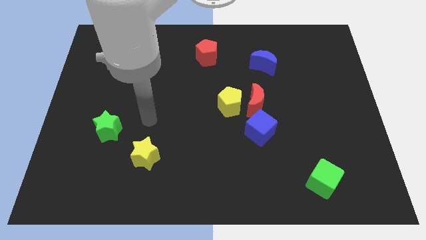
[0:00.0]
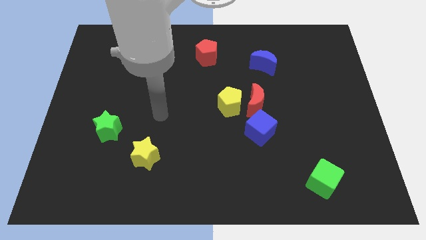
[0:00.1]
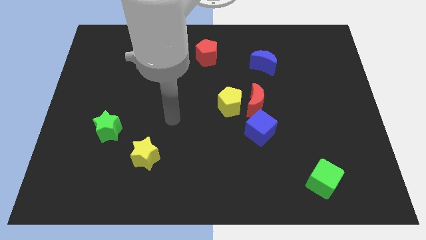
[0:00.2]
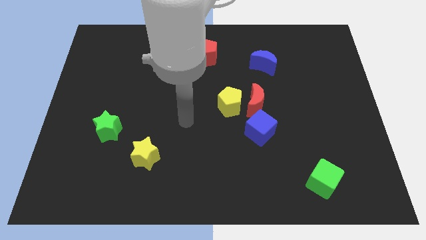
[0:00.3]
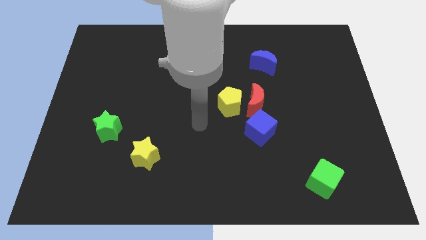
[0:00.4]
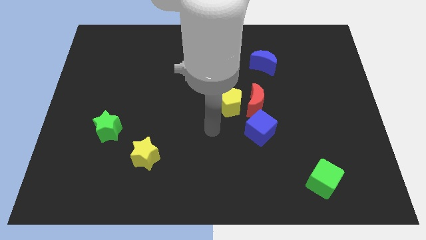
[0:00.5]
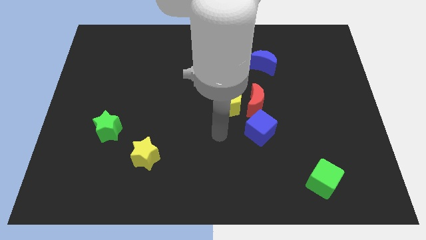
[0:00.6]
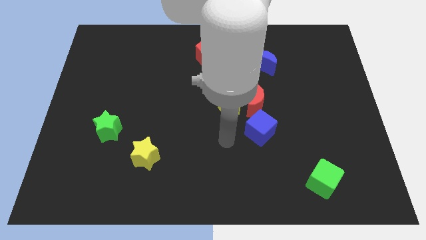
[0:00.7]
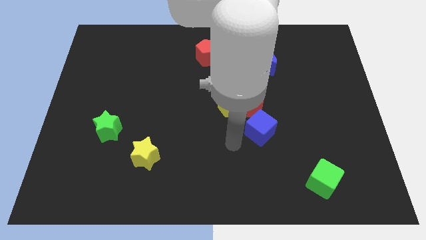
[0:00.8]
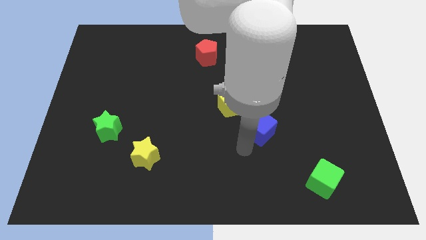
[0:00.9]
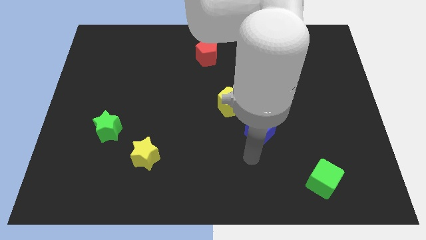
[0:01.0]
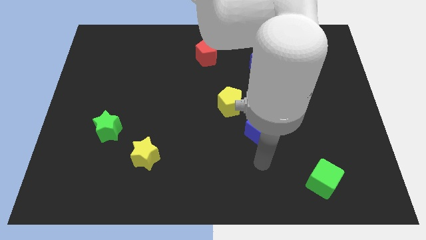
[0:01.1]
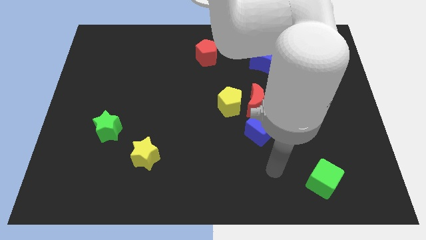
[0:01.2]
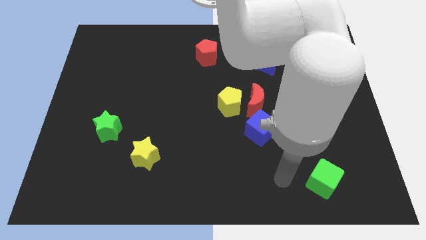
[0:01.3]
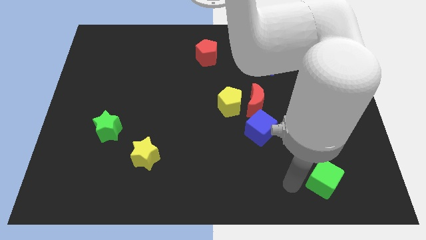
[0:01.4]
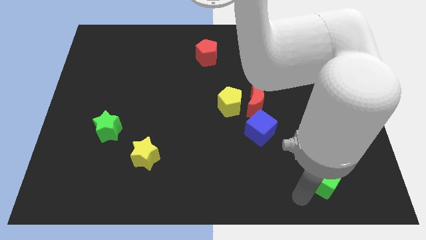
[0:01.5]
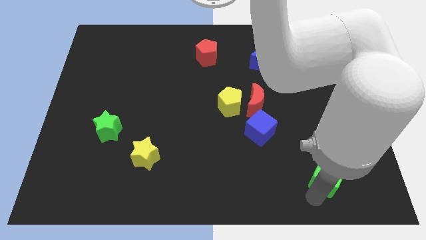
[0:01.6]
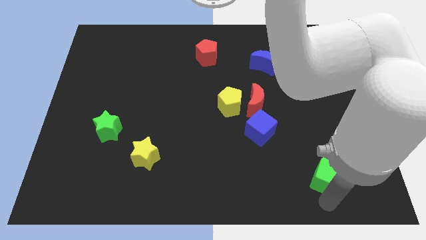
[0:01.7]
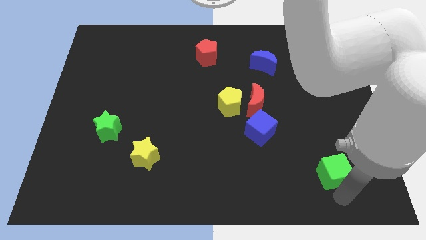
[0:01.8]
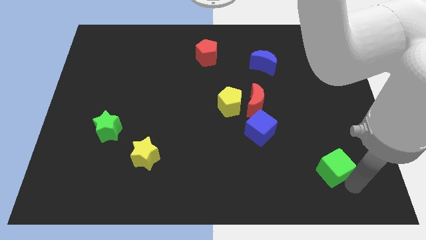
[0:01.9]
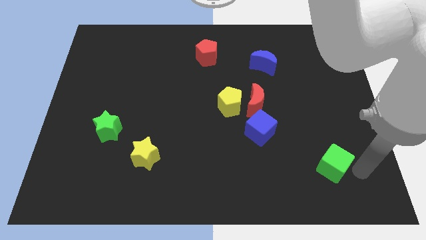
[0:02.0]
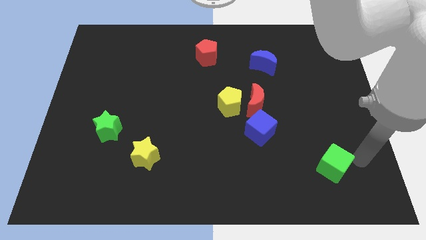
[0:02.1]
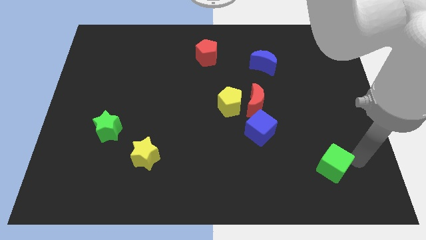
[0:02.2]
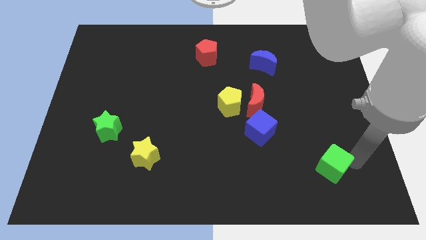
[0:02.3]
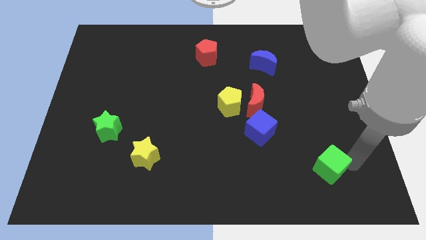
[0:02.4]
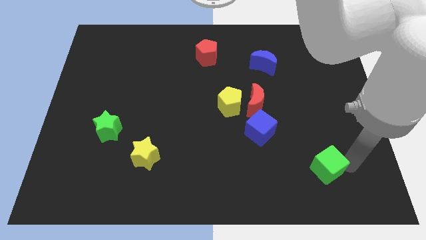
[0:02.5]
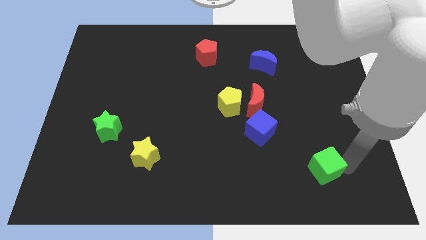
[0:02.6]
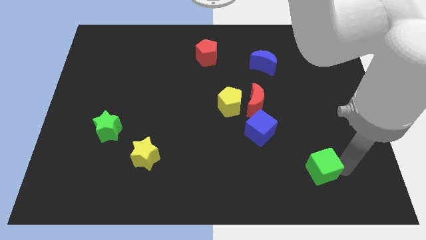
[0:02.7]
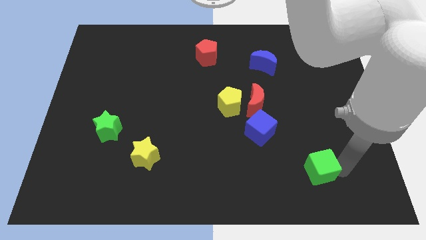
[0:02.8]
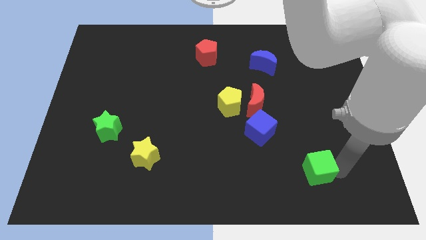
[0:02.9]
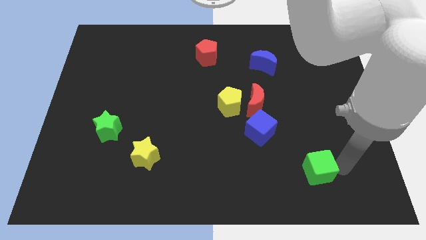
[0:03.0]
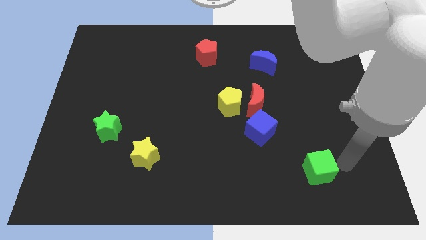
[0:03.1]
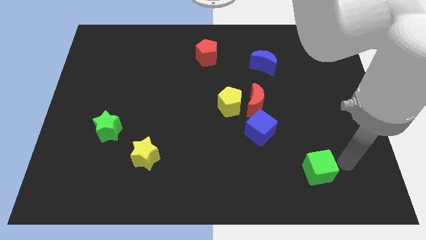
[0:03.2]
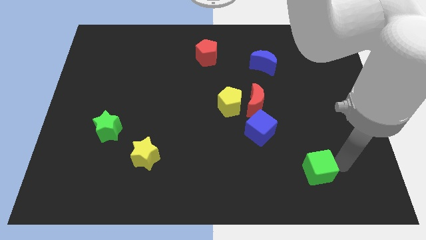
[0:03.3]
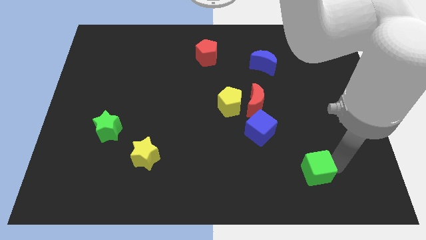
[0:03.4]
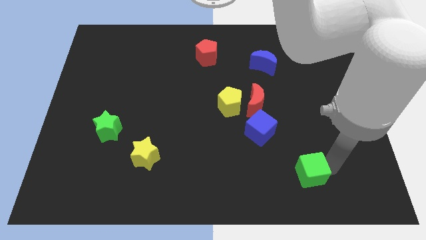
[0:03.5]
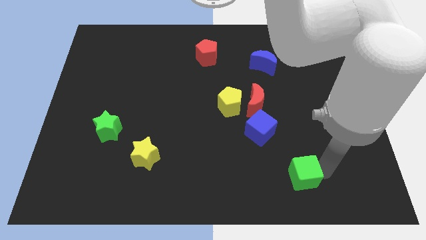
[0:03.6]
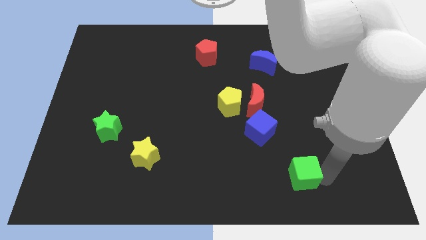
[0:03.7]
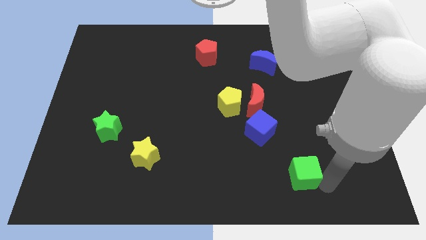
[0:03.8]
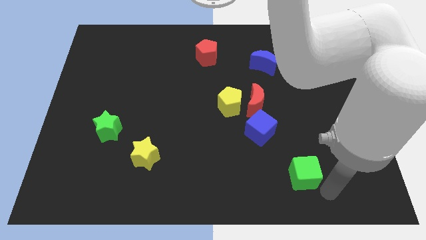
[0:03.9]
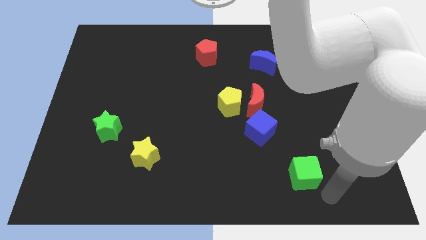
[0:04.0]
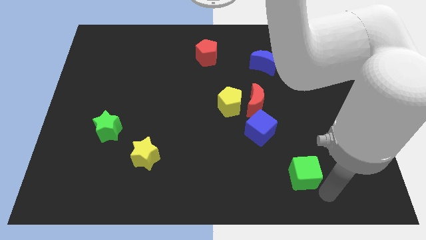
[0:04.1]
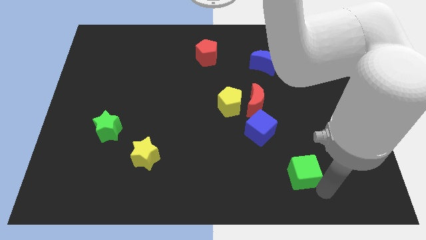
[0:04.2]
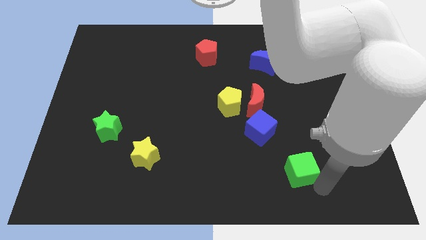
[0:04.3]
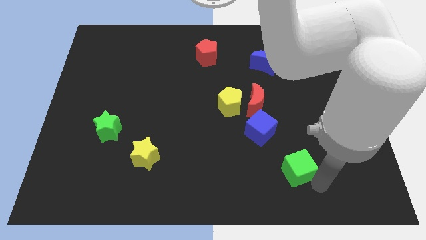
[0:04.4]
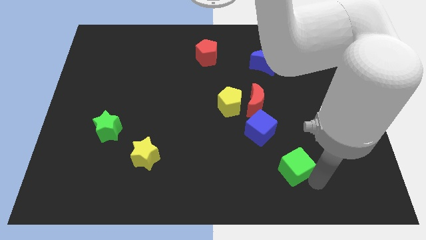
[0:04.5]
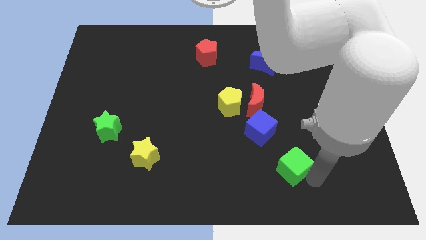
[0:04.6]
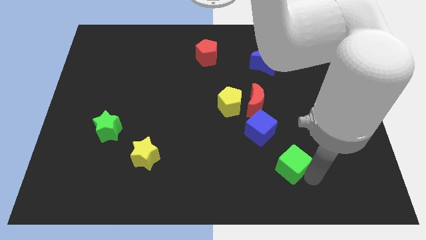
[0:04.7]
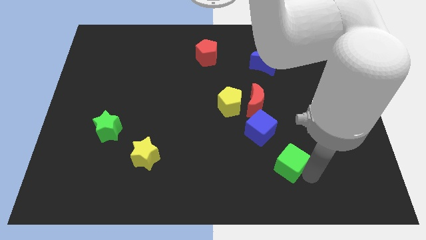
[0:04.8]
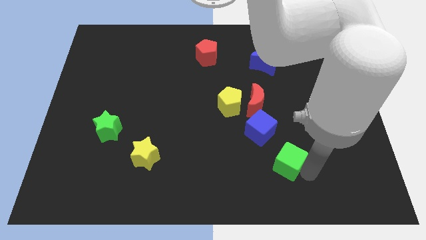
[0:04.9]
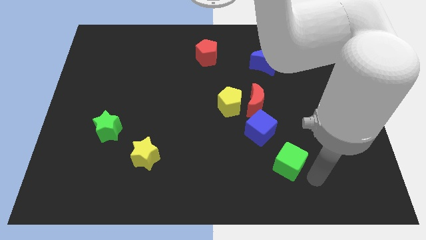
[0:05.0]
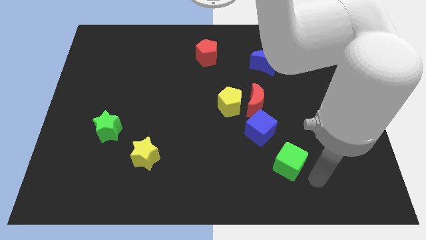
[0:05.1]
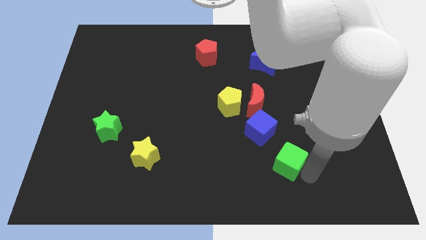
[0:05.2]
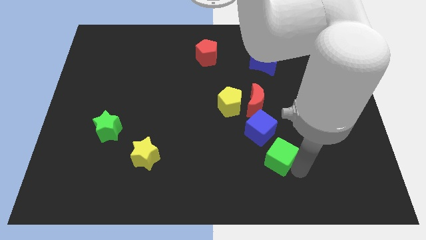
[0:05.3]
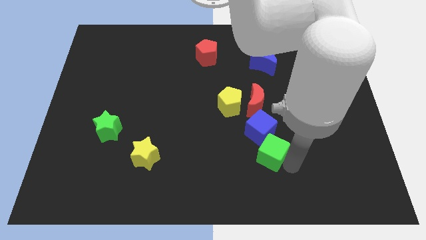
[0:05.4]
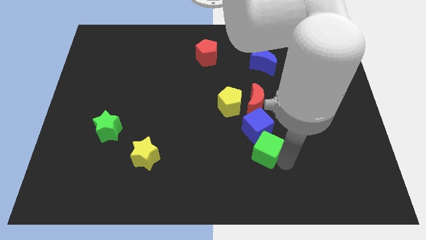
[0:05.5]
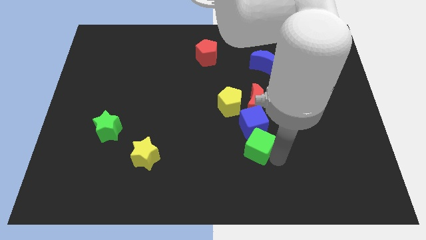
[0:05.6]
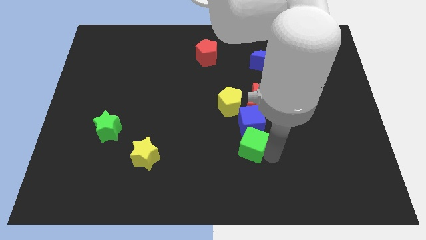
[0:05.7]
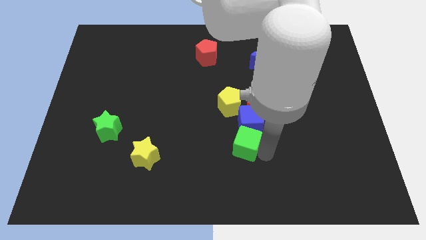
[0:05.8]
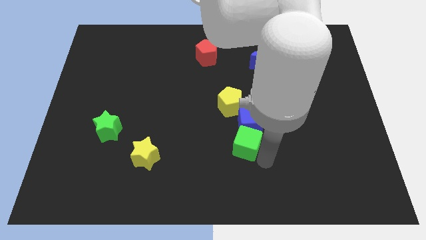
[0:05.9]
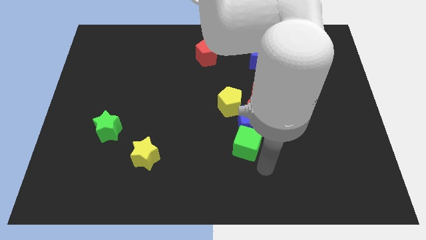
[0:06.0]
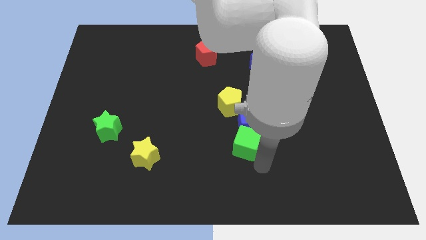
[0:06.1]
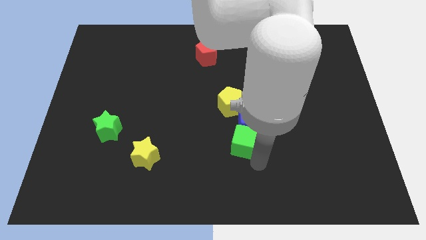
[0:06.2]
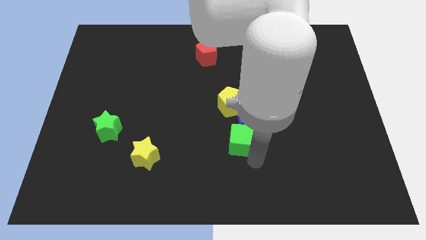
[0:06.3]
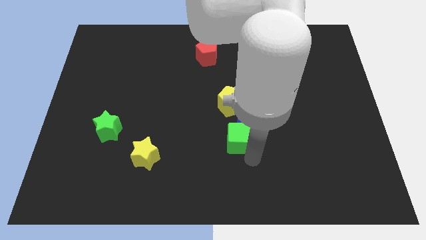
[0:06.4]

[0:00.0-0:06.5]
push the green cube to the middle of the board
